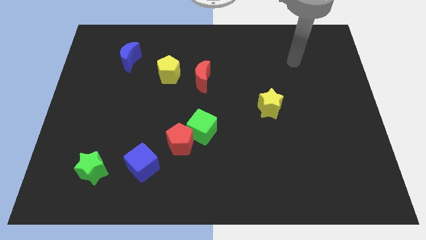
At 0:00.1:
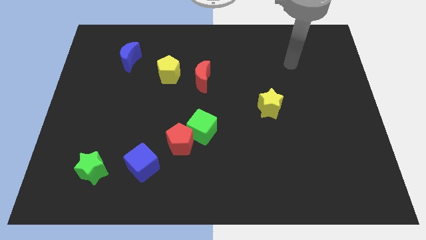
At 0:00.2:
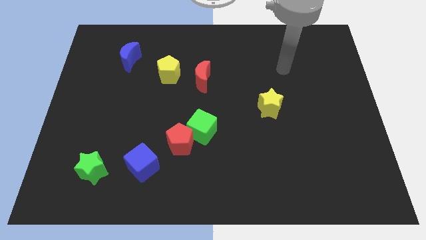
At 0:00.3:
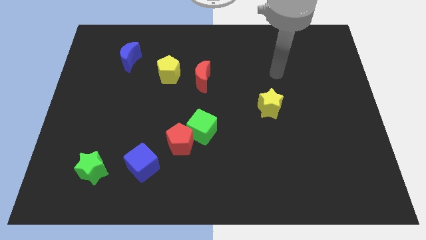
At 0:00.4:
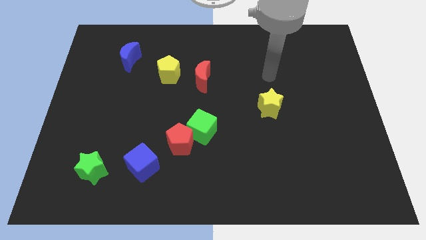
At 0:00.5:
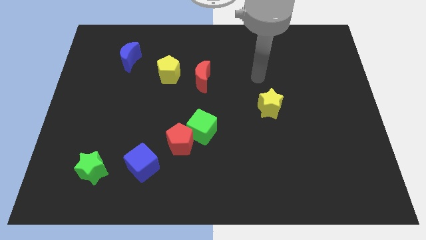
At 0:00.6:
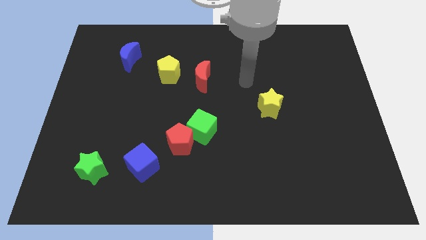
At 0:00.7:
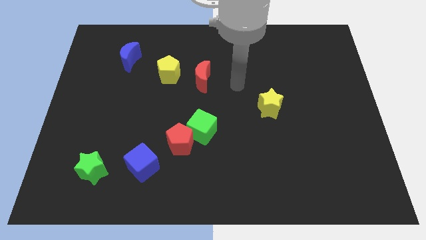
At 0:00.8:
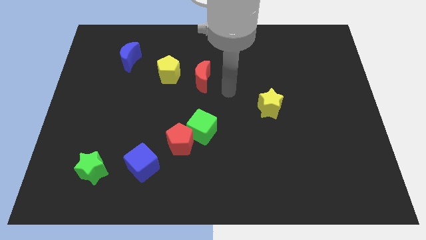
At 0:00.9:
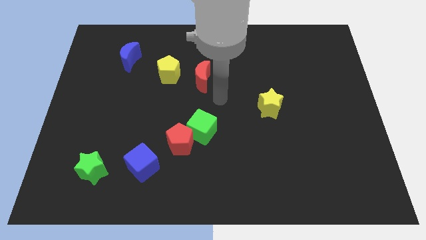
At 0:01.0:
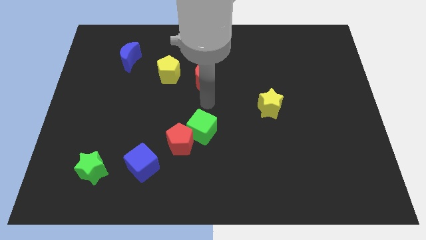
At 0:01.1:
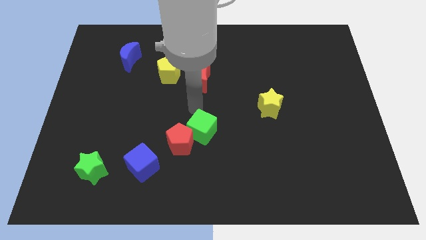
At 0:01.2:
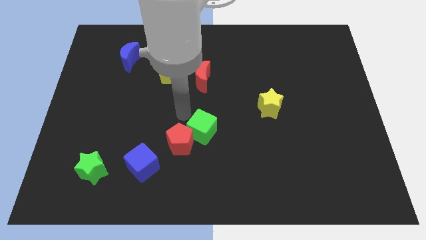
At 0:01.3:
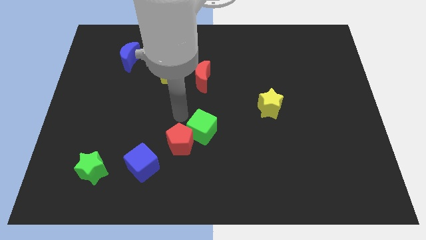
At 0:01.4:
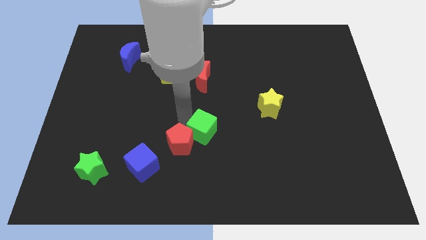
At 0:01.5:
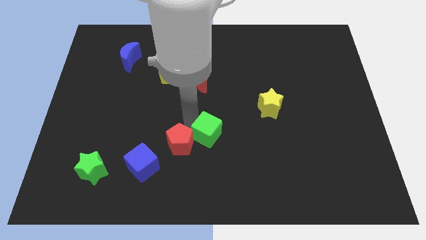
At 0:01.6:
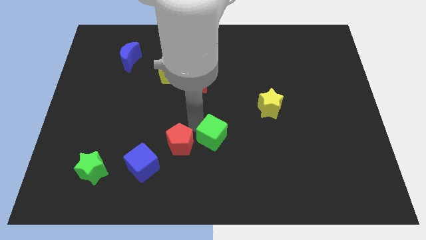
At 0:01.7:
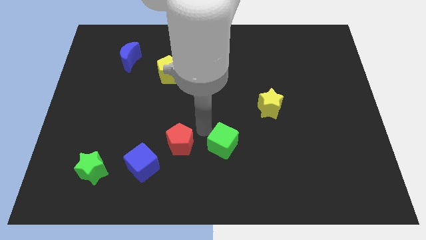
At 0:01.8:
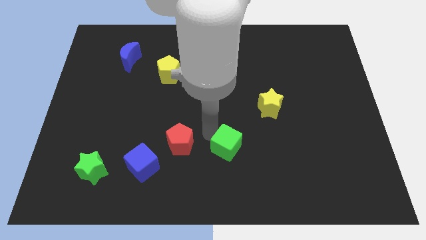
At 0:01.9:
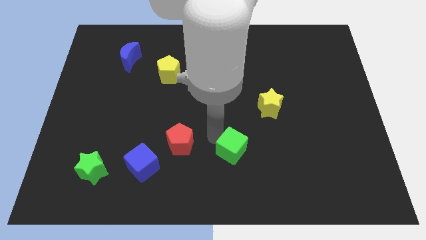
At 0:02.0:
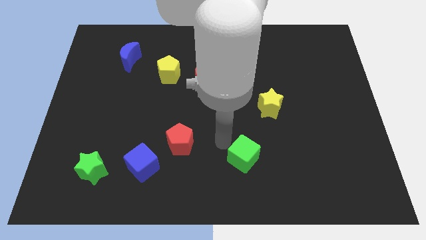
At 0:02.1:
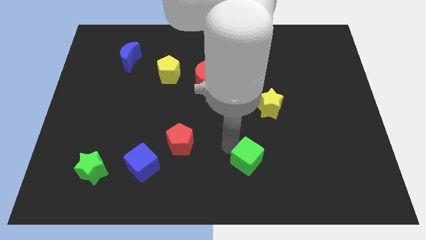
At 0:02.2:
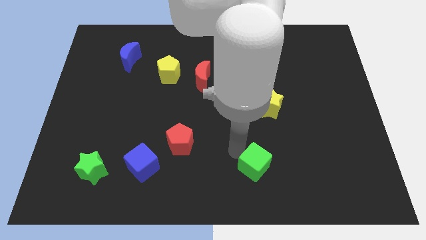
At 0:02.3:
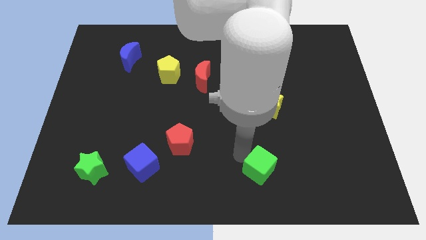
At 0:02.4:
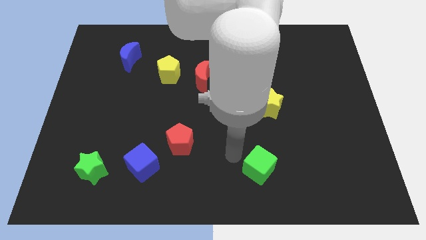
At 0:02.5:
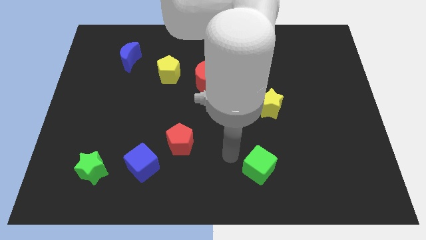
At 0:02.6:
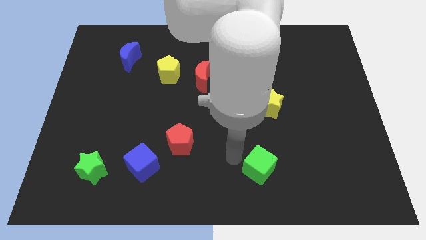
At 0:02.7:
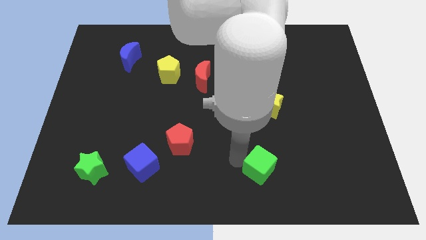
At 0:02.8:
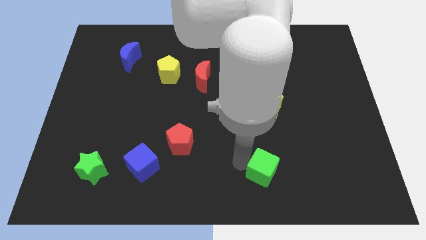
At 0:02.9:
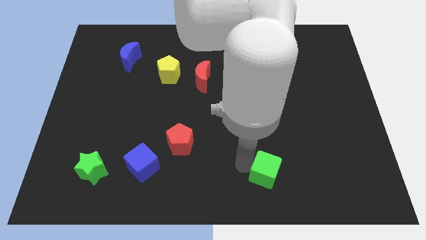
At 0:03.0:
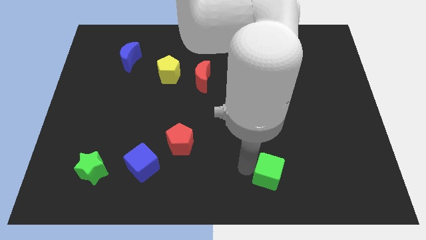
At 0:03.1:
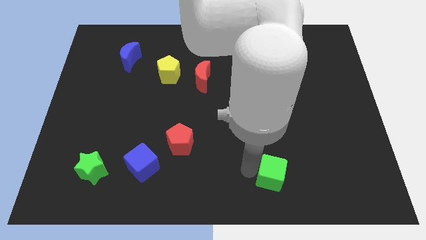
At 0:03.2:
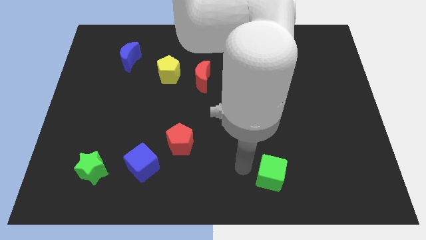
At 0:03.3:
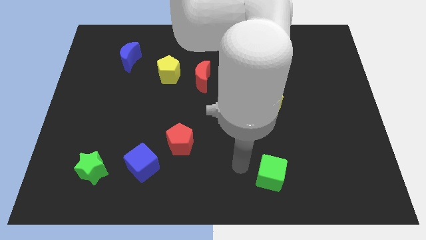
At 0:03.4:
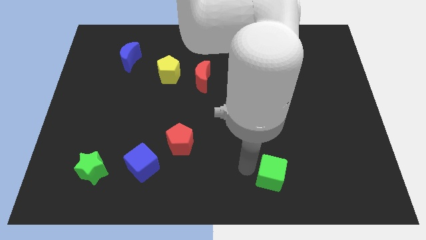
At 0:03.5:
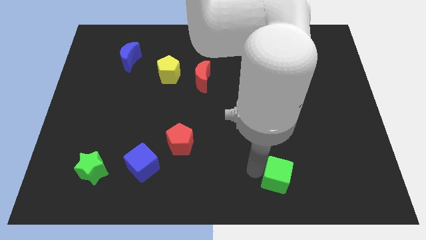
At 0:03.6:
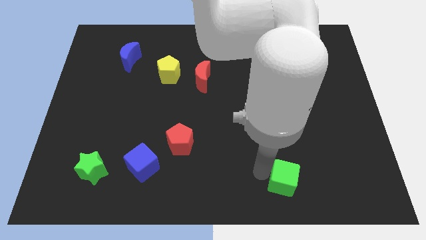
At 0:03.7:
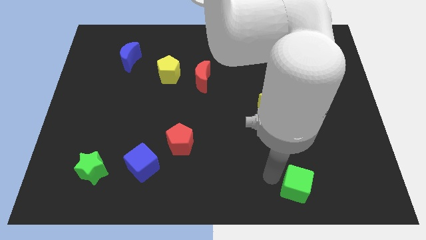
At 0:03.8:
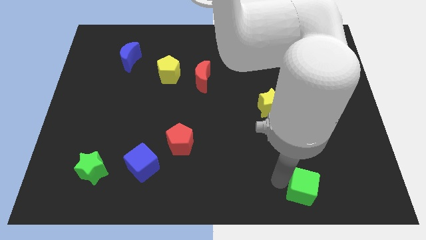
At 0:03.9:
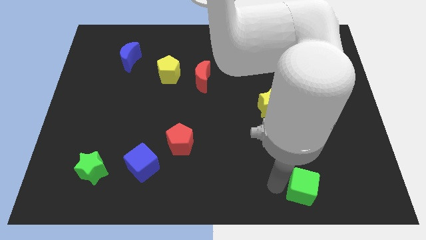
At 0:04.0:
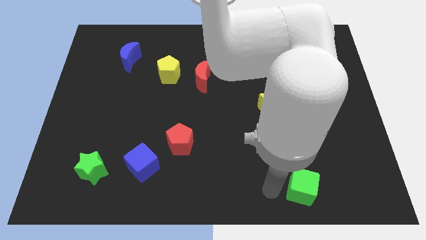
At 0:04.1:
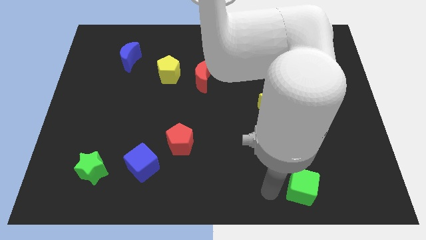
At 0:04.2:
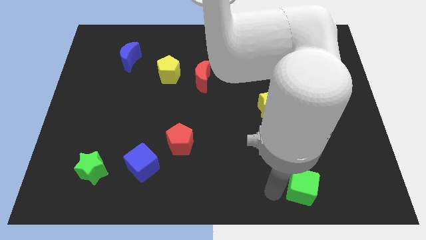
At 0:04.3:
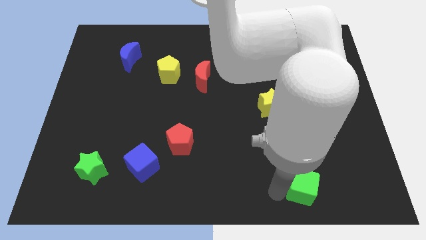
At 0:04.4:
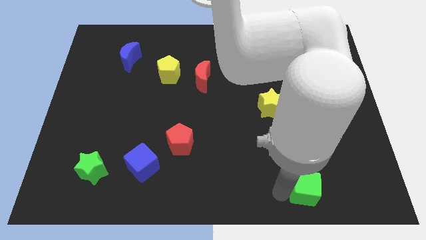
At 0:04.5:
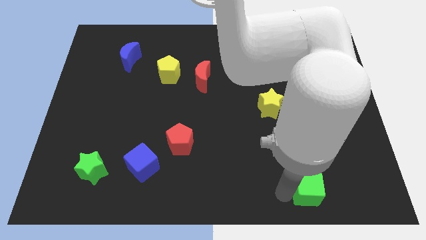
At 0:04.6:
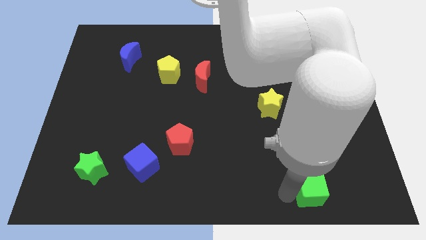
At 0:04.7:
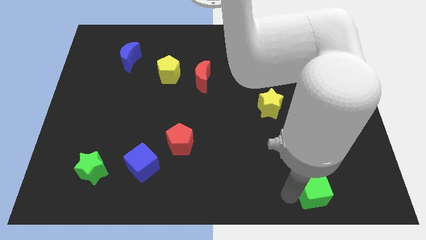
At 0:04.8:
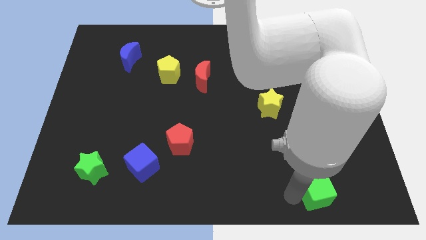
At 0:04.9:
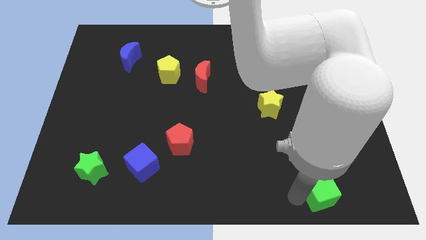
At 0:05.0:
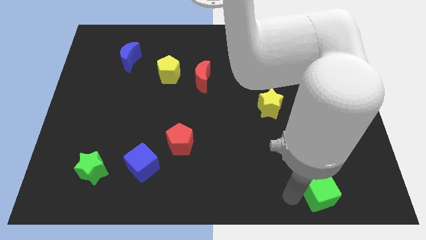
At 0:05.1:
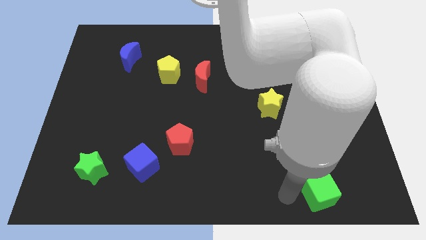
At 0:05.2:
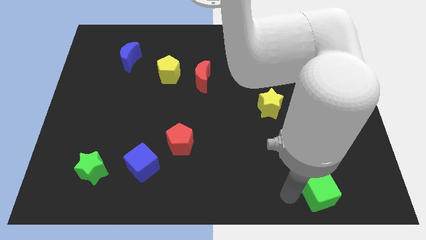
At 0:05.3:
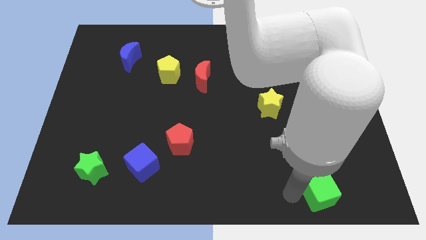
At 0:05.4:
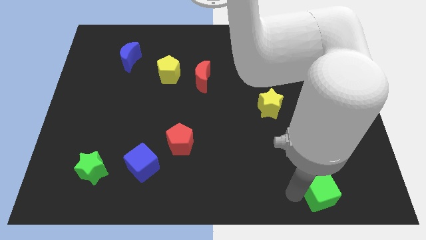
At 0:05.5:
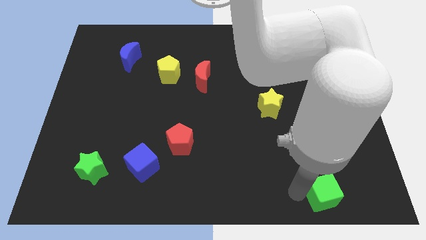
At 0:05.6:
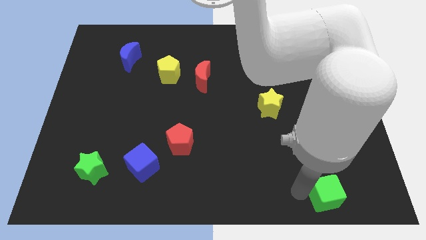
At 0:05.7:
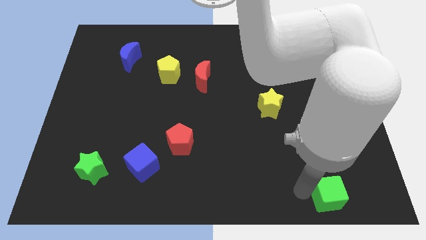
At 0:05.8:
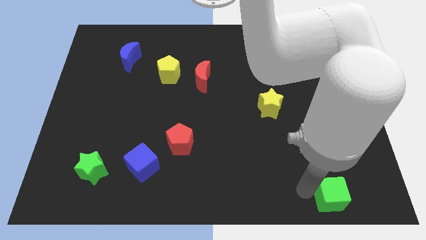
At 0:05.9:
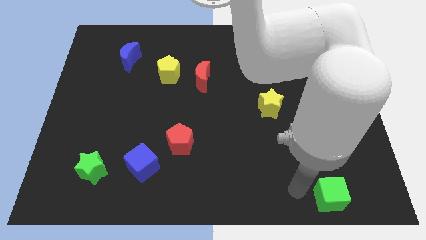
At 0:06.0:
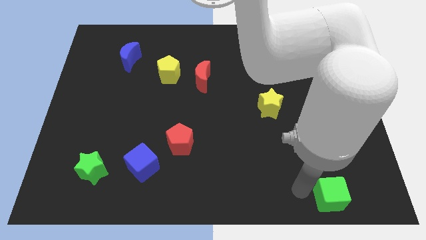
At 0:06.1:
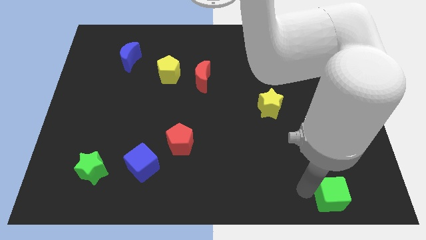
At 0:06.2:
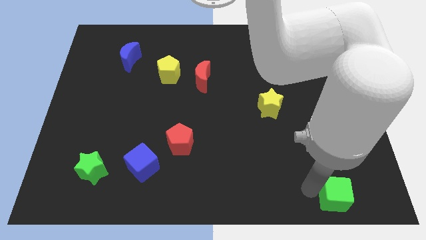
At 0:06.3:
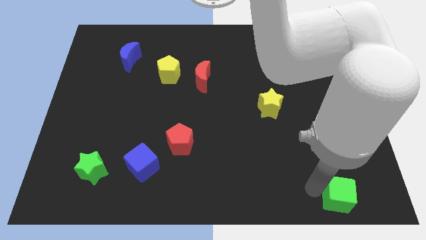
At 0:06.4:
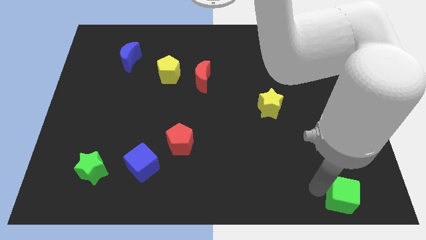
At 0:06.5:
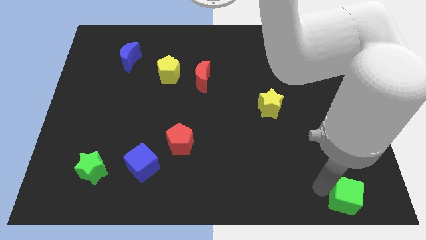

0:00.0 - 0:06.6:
push the green cube to the lower right corner

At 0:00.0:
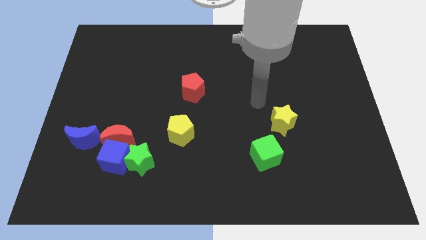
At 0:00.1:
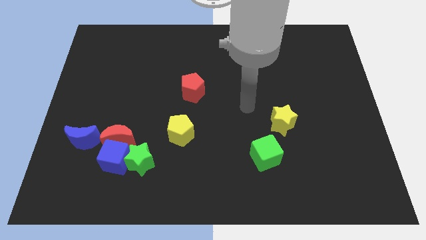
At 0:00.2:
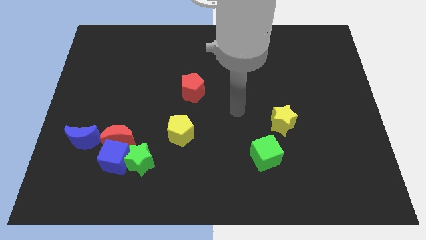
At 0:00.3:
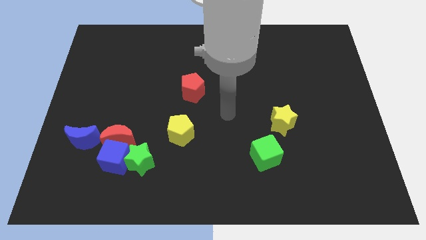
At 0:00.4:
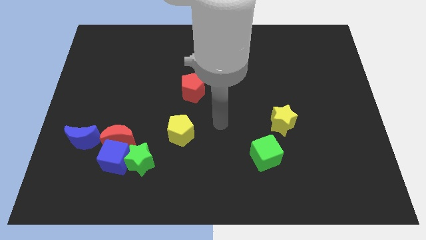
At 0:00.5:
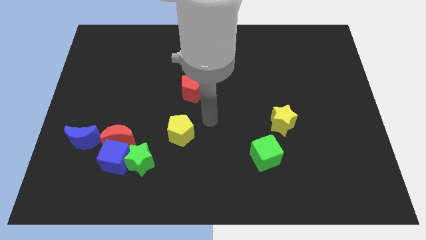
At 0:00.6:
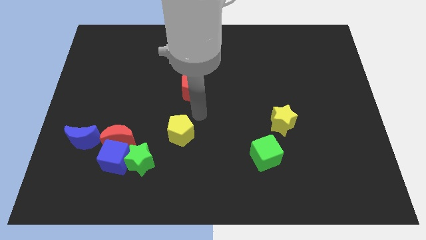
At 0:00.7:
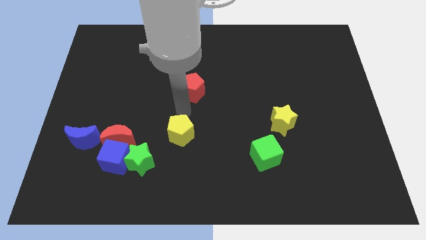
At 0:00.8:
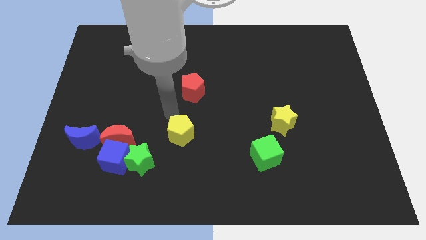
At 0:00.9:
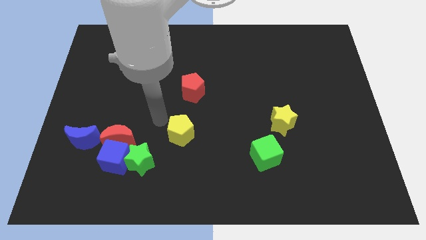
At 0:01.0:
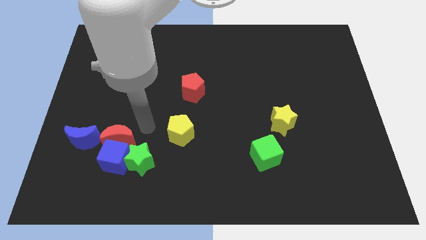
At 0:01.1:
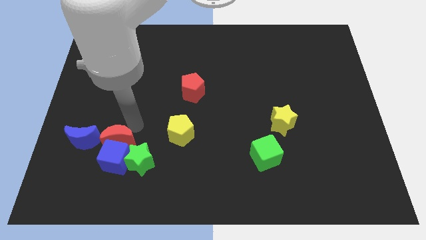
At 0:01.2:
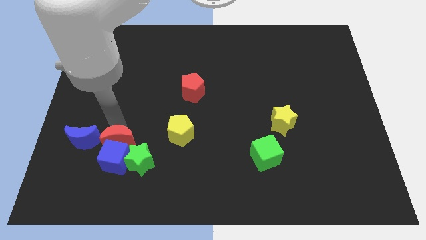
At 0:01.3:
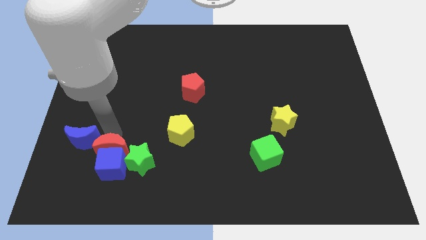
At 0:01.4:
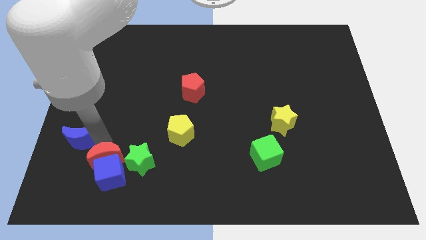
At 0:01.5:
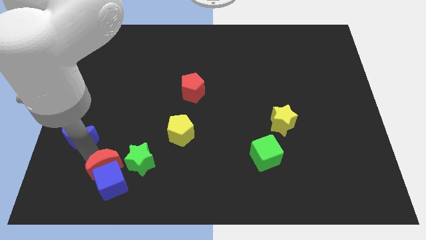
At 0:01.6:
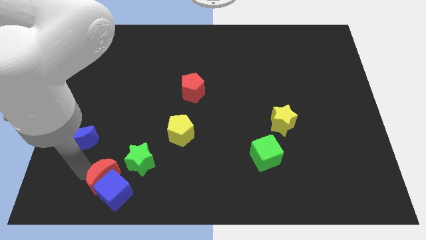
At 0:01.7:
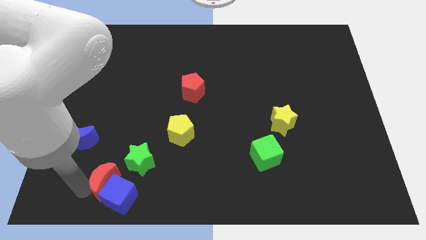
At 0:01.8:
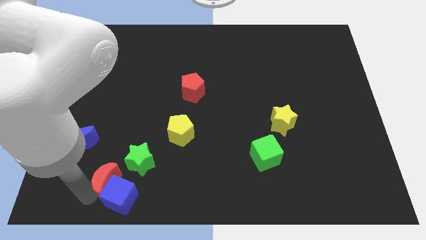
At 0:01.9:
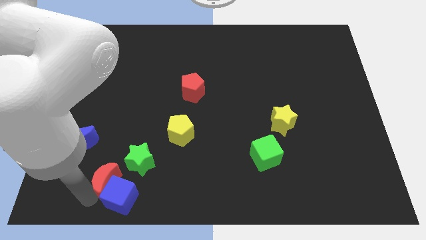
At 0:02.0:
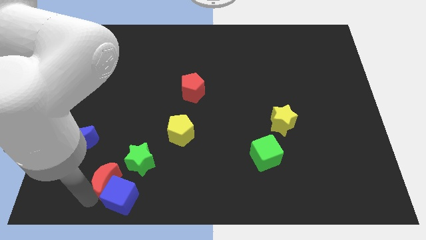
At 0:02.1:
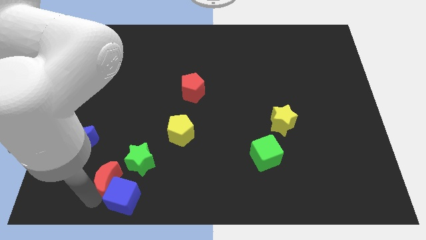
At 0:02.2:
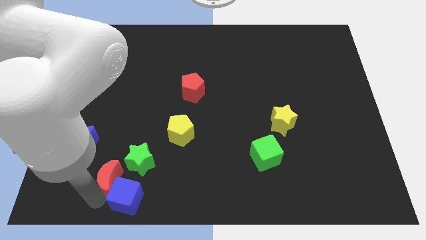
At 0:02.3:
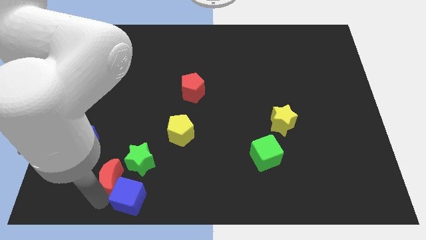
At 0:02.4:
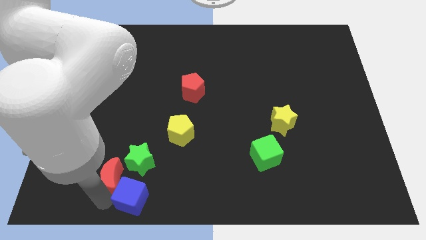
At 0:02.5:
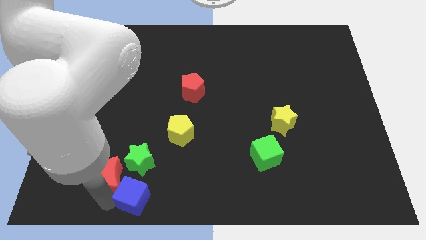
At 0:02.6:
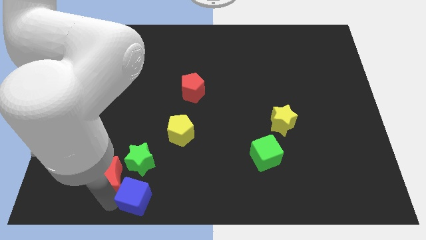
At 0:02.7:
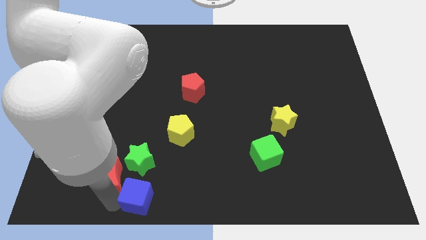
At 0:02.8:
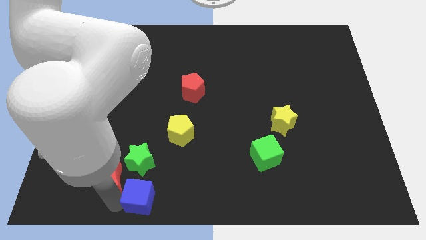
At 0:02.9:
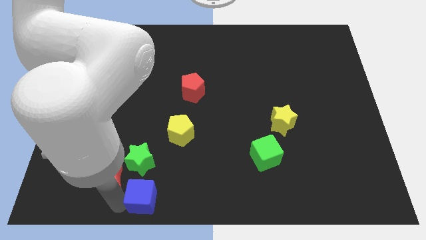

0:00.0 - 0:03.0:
put the blue cube to the bottom side
